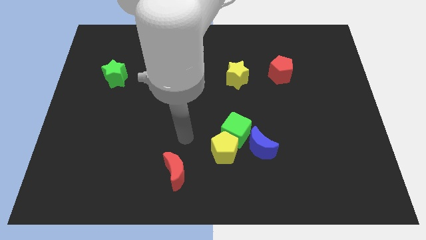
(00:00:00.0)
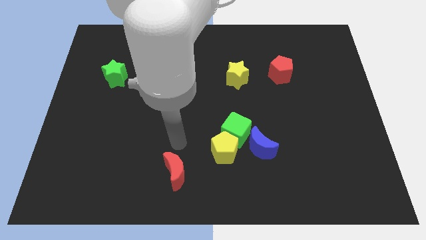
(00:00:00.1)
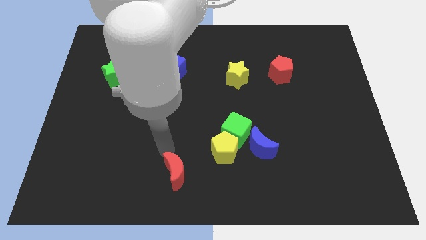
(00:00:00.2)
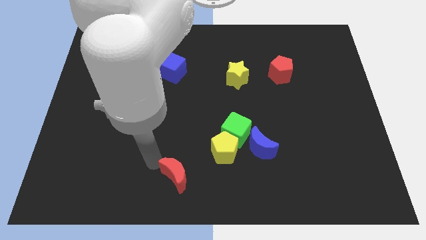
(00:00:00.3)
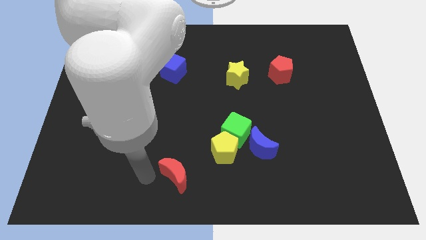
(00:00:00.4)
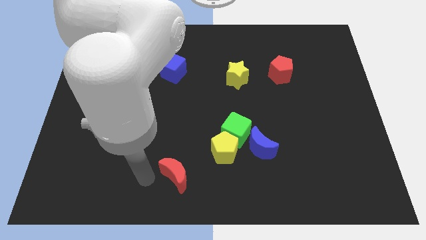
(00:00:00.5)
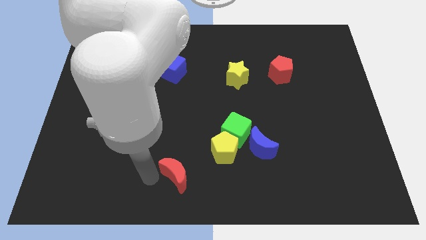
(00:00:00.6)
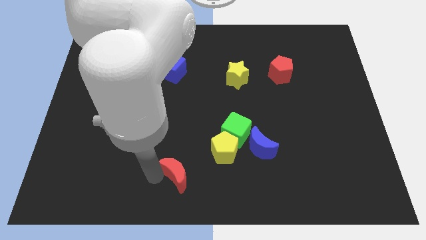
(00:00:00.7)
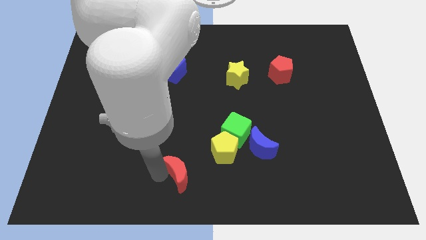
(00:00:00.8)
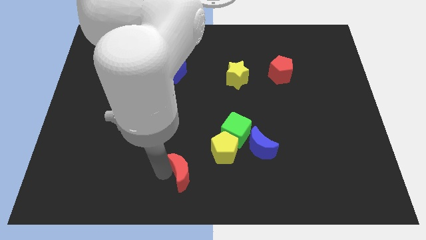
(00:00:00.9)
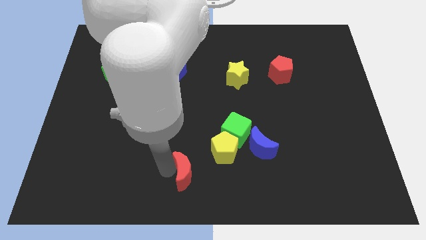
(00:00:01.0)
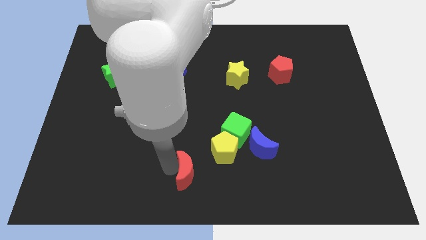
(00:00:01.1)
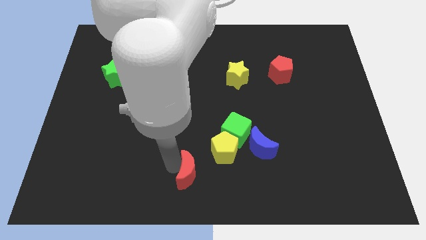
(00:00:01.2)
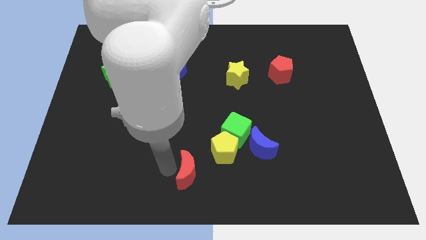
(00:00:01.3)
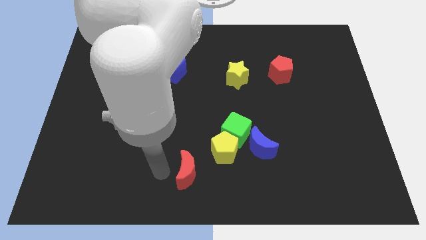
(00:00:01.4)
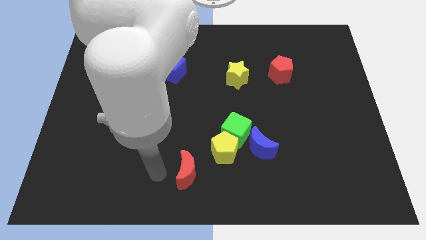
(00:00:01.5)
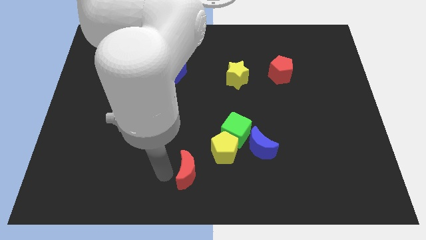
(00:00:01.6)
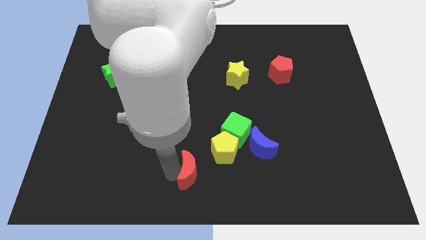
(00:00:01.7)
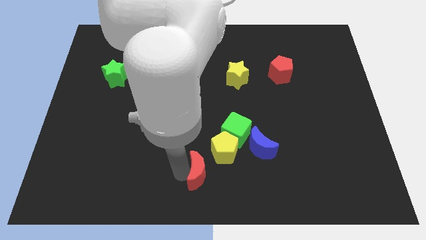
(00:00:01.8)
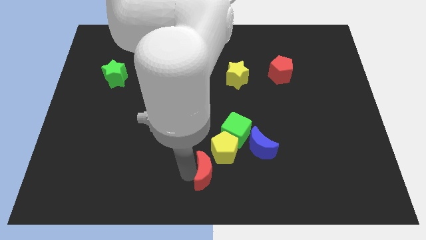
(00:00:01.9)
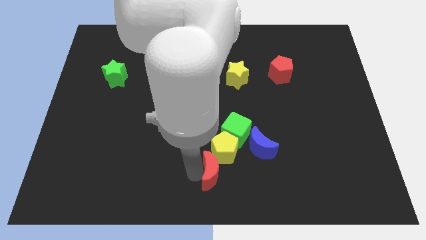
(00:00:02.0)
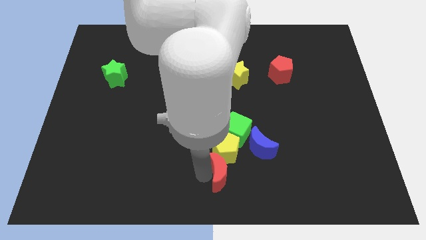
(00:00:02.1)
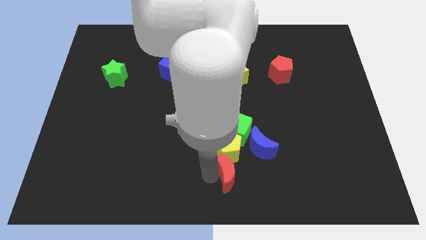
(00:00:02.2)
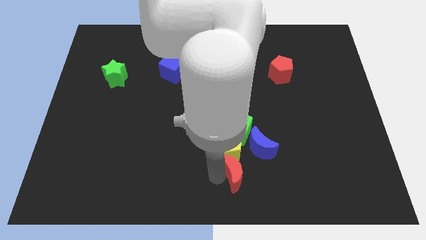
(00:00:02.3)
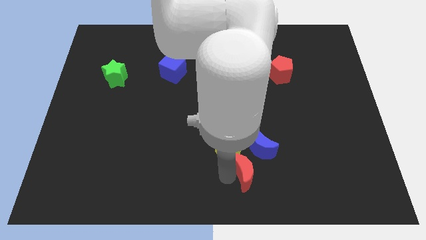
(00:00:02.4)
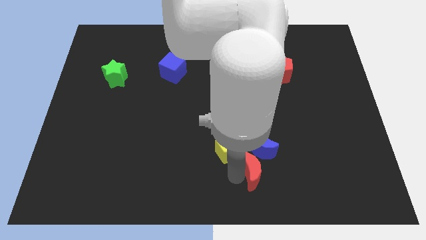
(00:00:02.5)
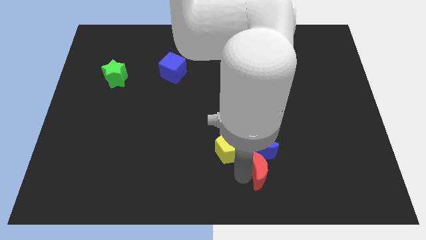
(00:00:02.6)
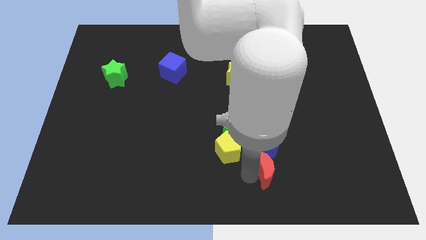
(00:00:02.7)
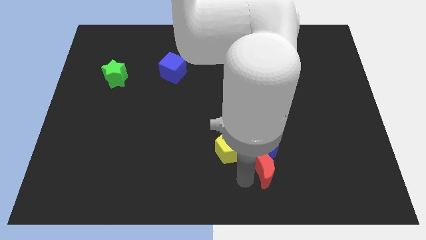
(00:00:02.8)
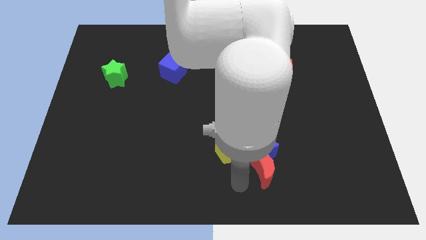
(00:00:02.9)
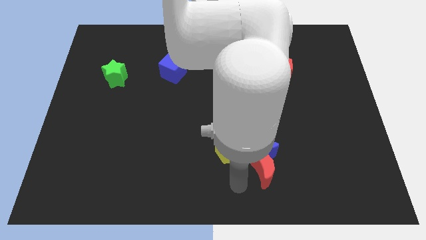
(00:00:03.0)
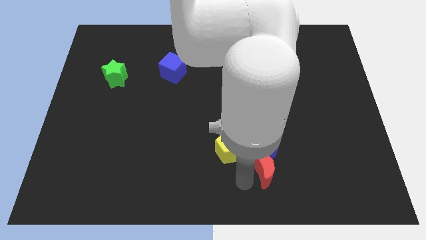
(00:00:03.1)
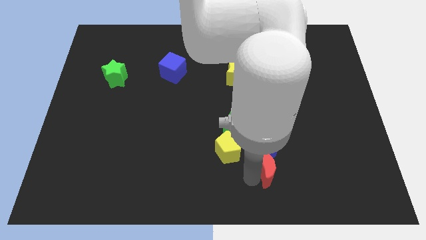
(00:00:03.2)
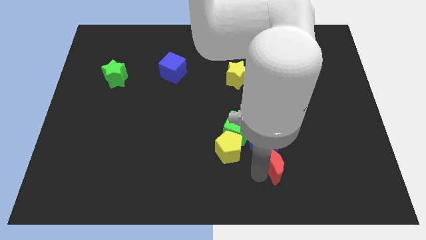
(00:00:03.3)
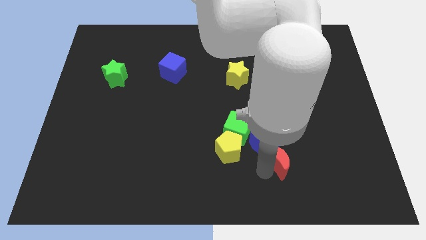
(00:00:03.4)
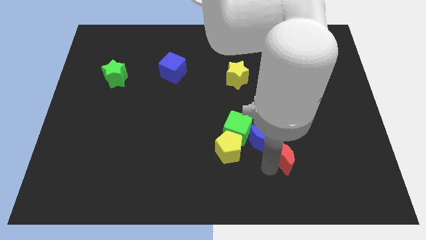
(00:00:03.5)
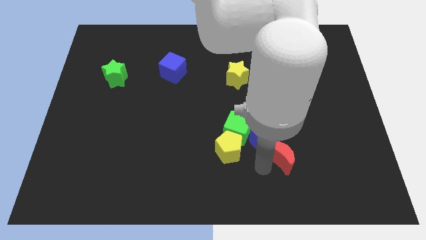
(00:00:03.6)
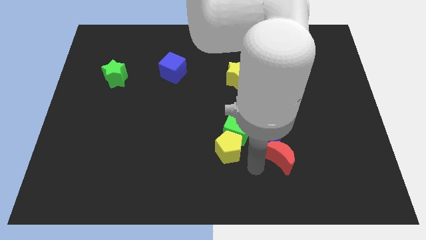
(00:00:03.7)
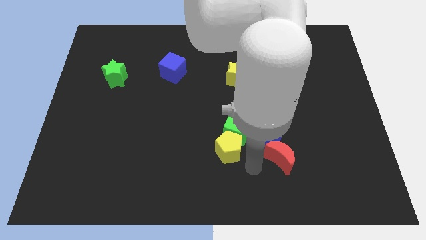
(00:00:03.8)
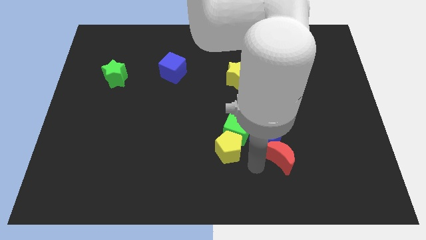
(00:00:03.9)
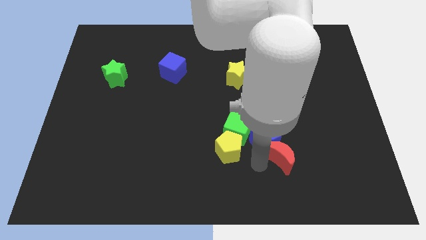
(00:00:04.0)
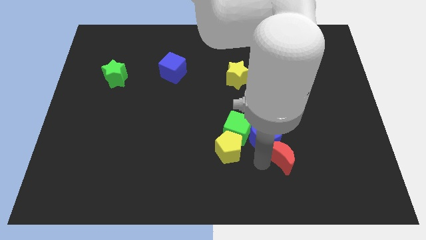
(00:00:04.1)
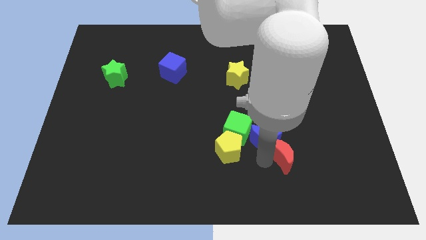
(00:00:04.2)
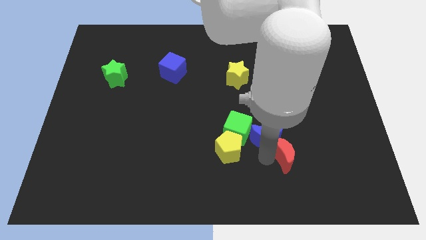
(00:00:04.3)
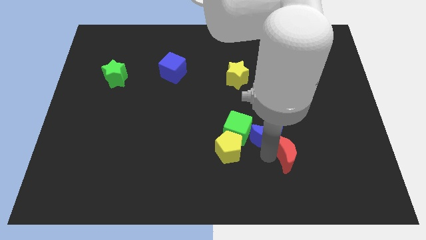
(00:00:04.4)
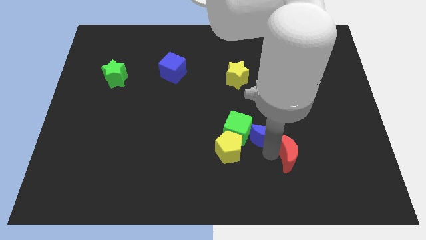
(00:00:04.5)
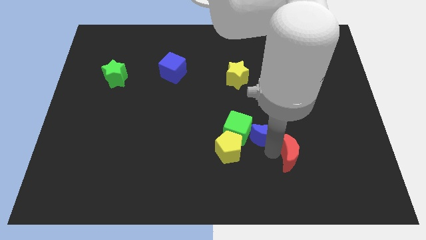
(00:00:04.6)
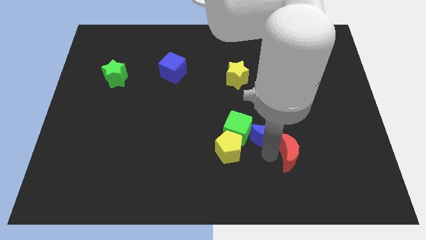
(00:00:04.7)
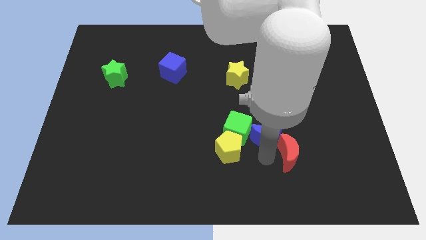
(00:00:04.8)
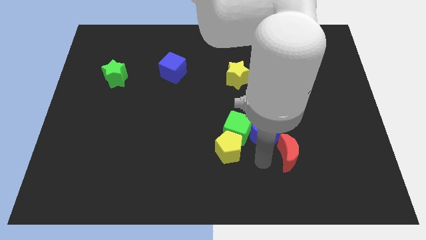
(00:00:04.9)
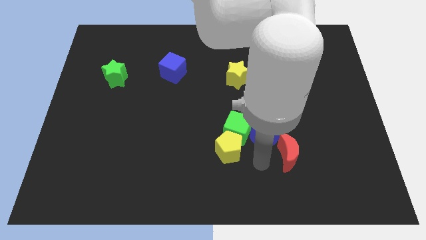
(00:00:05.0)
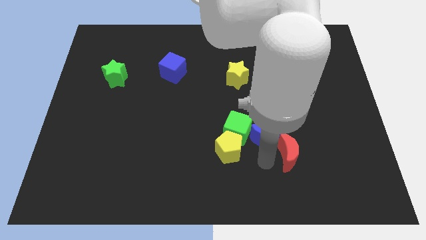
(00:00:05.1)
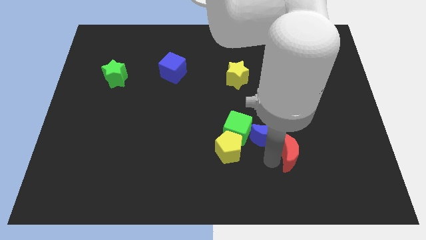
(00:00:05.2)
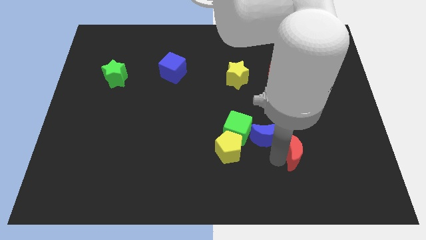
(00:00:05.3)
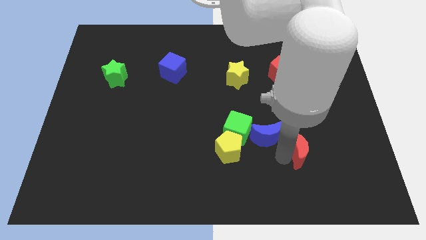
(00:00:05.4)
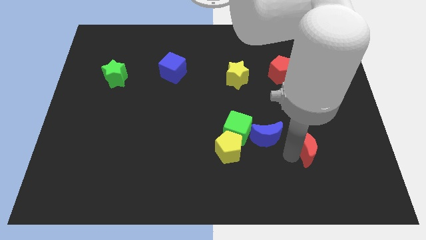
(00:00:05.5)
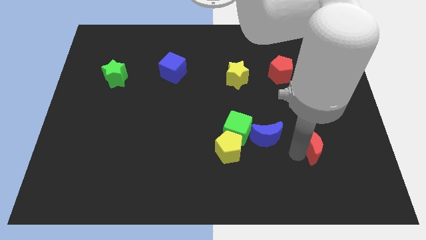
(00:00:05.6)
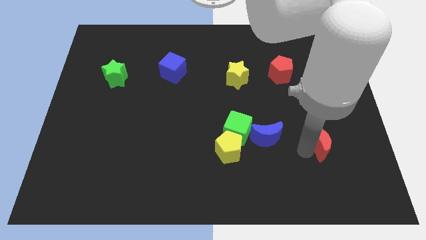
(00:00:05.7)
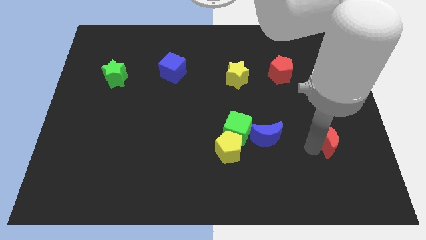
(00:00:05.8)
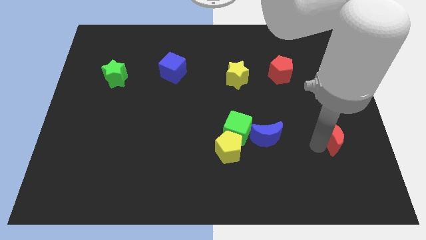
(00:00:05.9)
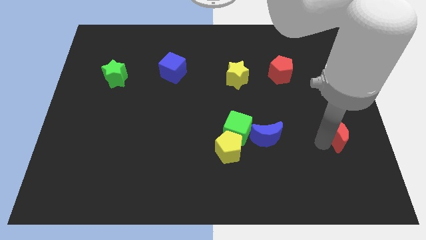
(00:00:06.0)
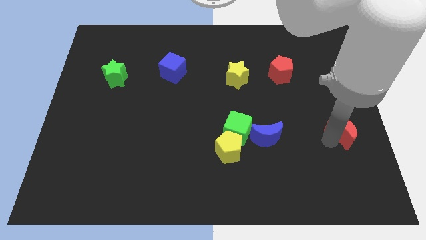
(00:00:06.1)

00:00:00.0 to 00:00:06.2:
slide the red moon to the right side of the board
